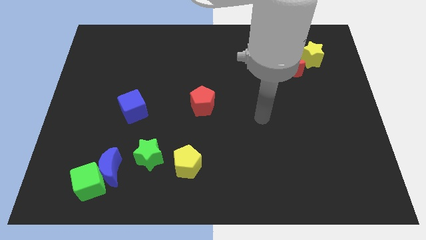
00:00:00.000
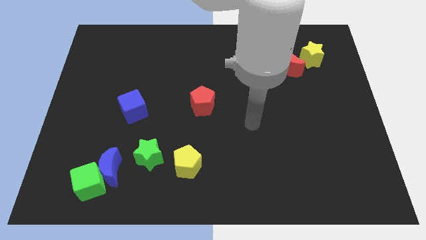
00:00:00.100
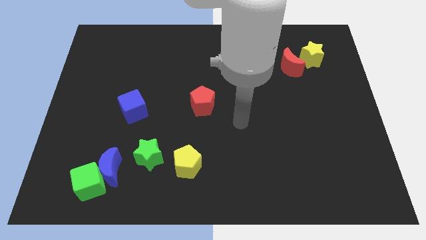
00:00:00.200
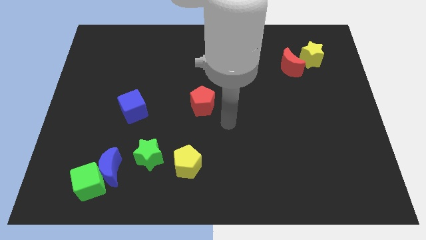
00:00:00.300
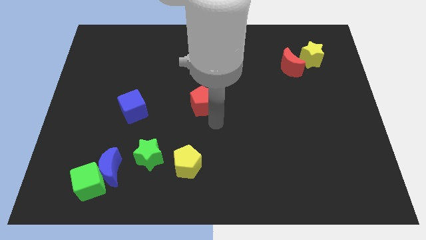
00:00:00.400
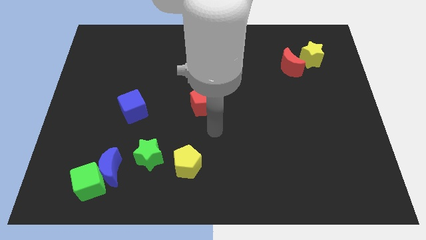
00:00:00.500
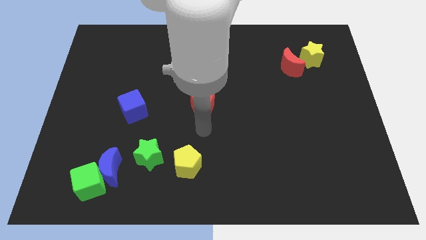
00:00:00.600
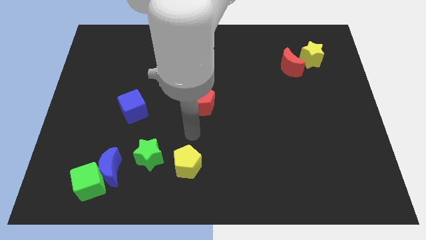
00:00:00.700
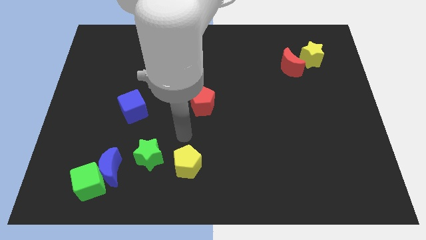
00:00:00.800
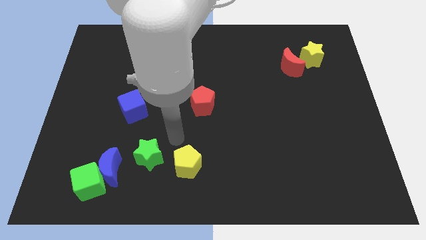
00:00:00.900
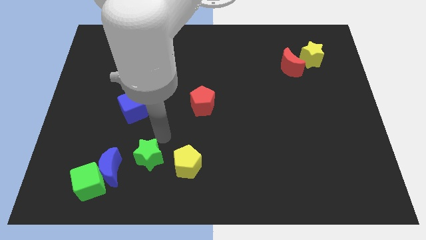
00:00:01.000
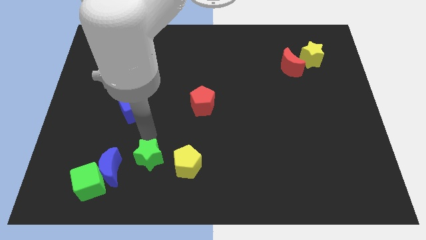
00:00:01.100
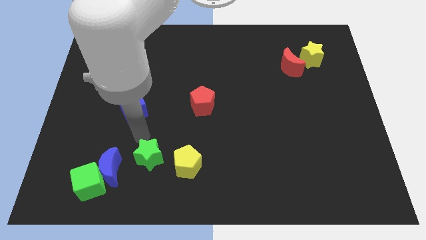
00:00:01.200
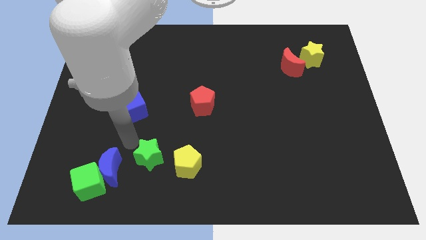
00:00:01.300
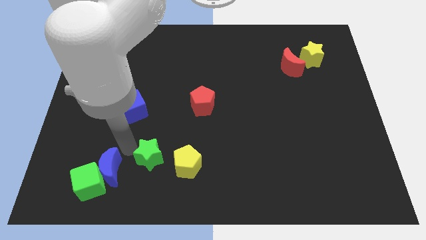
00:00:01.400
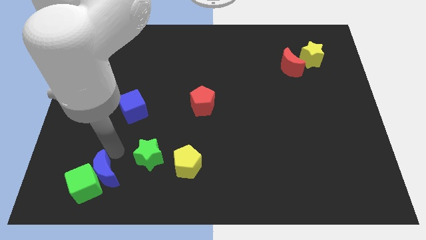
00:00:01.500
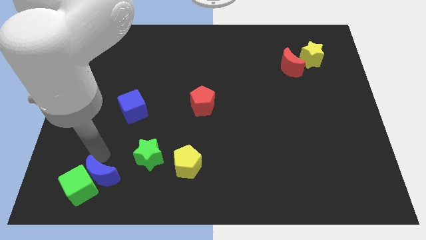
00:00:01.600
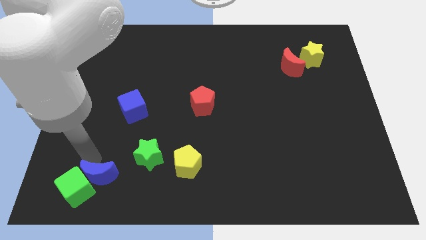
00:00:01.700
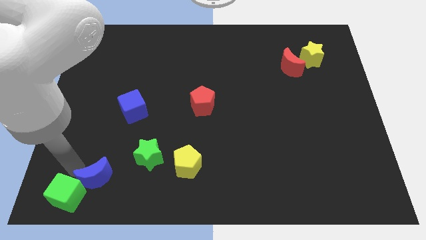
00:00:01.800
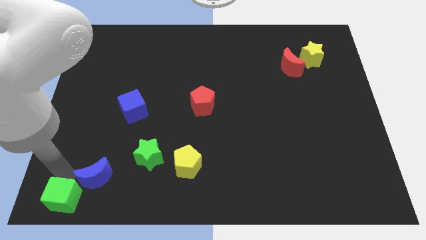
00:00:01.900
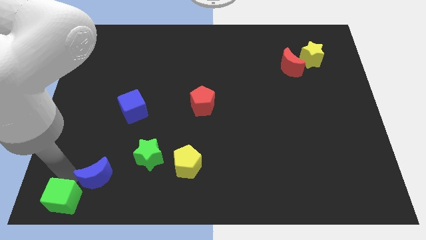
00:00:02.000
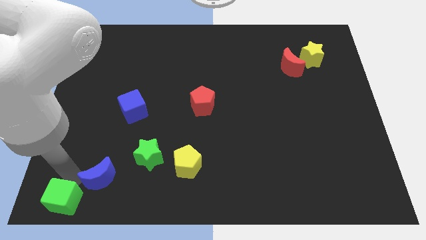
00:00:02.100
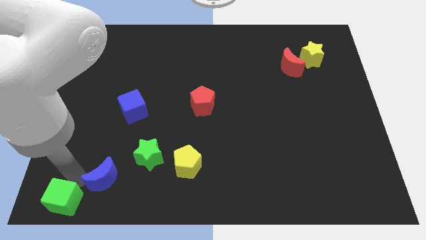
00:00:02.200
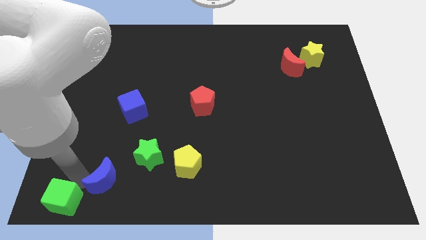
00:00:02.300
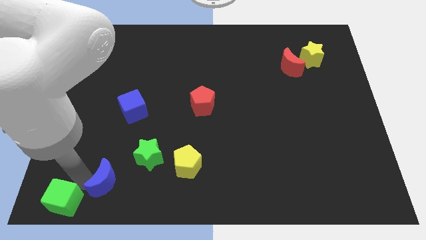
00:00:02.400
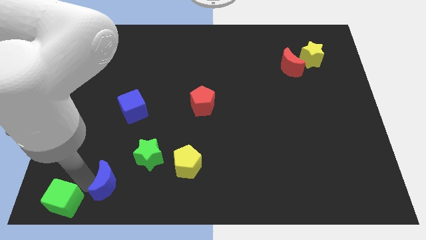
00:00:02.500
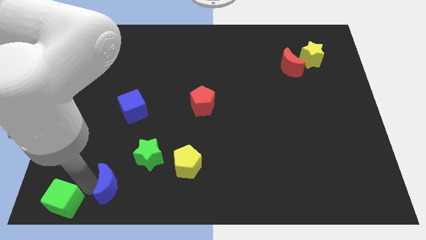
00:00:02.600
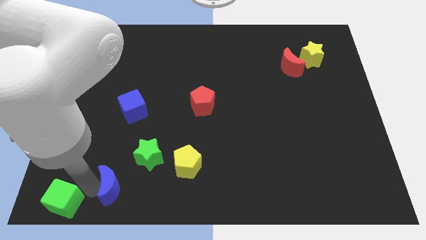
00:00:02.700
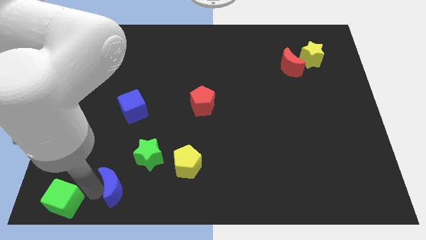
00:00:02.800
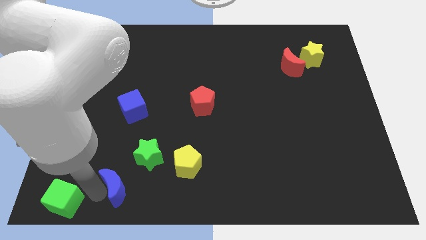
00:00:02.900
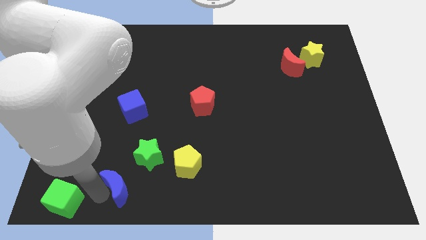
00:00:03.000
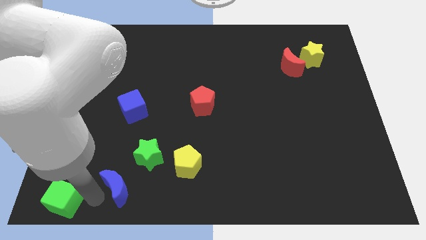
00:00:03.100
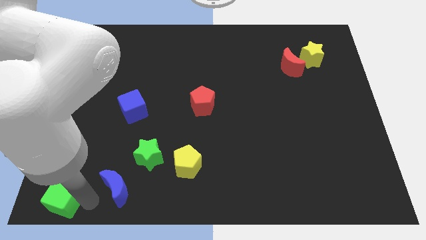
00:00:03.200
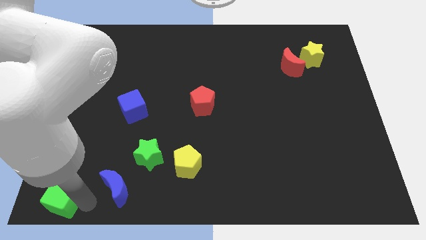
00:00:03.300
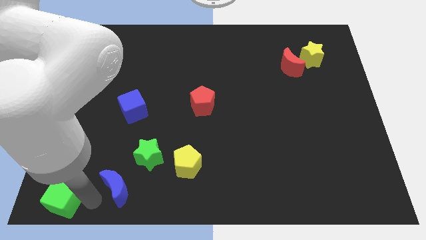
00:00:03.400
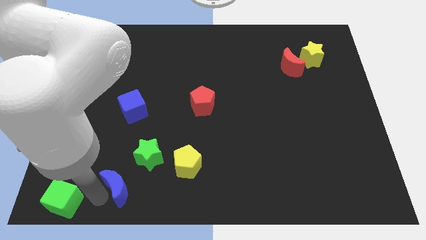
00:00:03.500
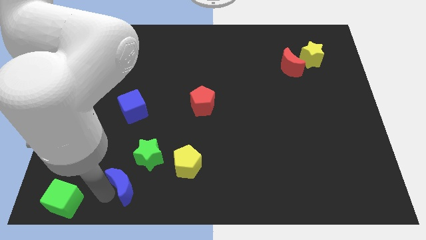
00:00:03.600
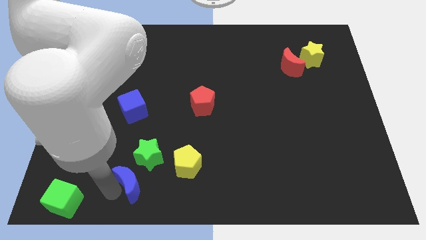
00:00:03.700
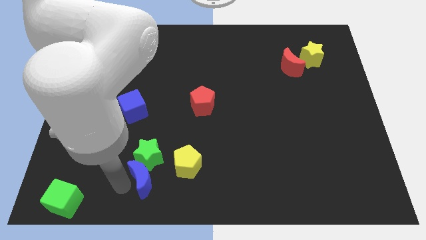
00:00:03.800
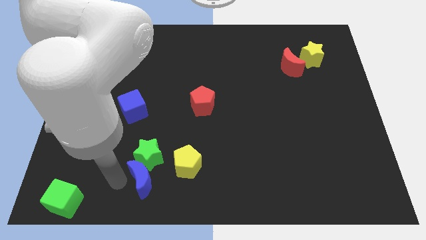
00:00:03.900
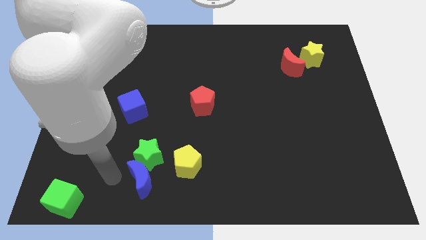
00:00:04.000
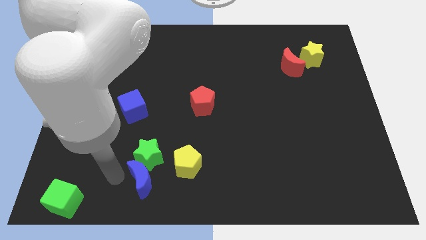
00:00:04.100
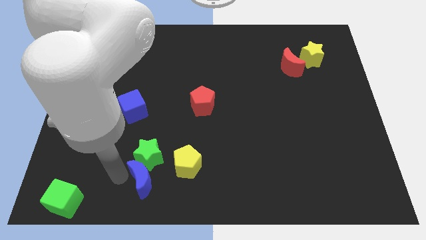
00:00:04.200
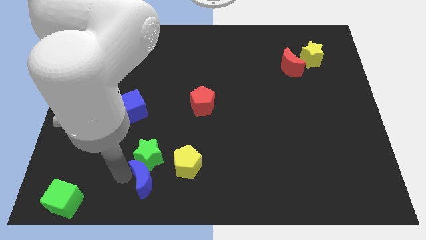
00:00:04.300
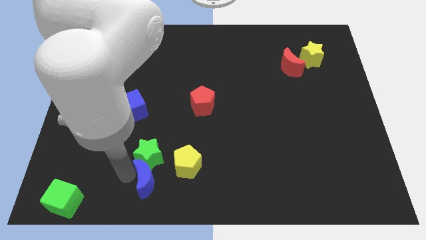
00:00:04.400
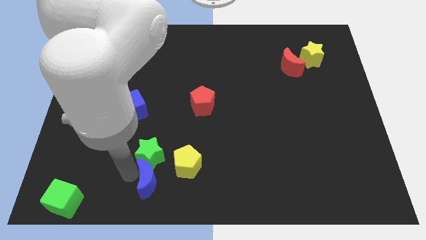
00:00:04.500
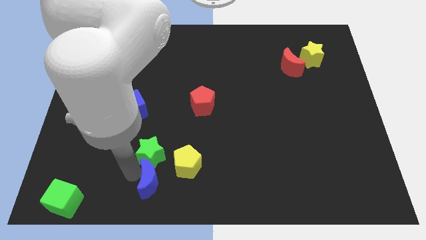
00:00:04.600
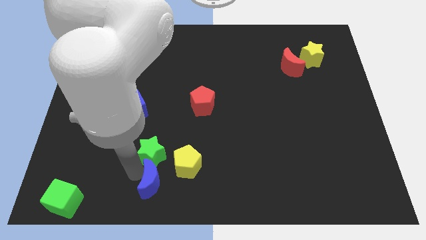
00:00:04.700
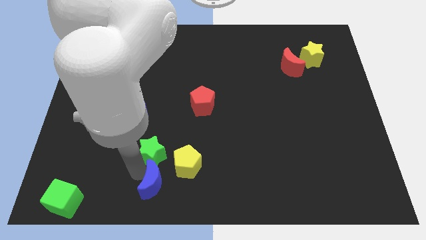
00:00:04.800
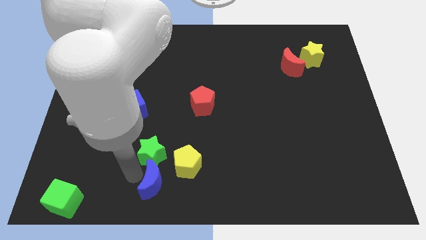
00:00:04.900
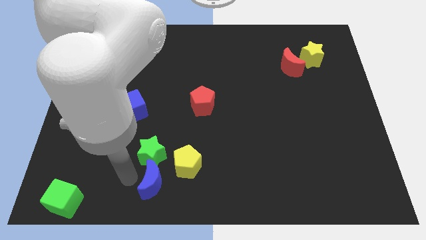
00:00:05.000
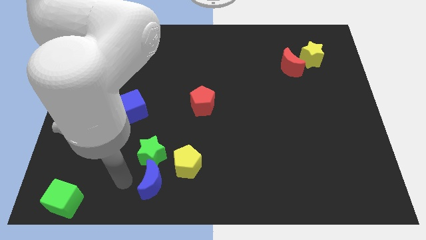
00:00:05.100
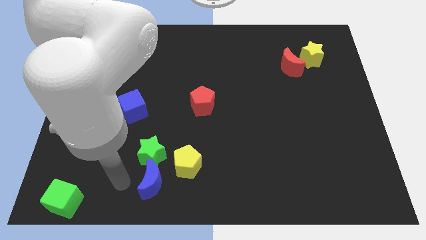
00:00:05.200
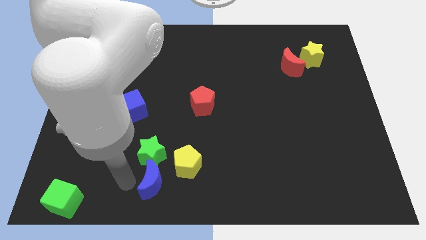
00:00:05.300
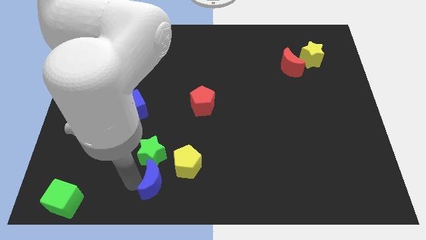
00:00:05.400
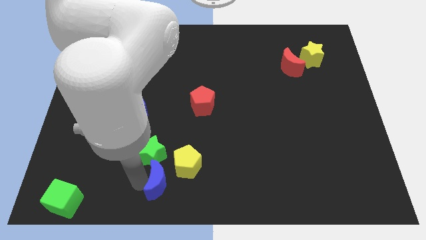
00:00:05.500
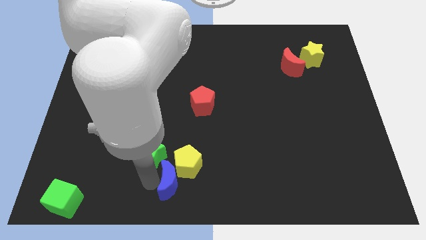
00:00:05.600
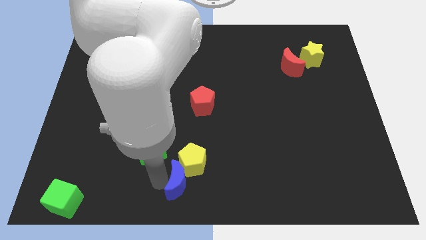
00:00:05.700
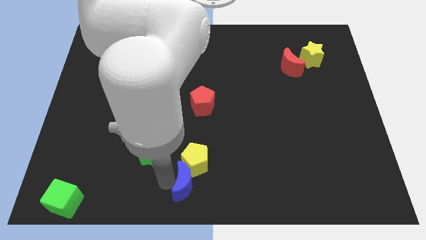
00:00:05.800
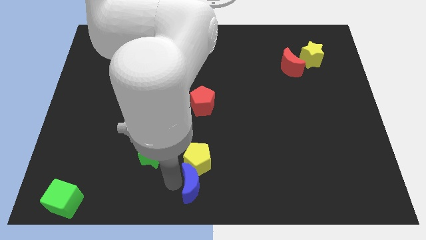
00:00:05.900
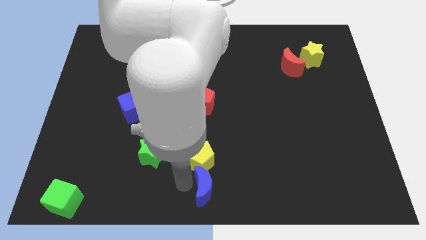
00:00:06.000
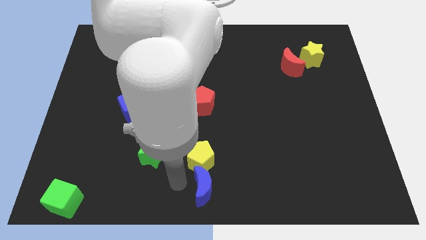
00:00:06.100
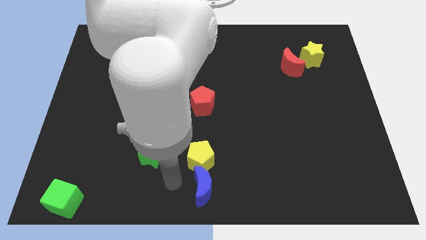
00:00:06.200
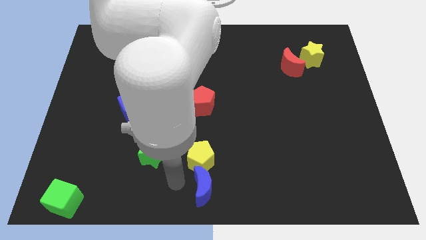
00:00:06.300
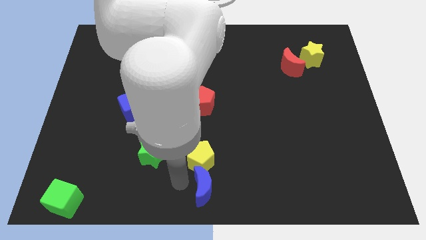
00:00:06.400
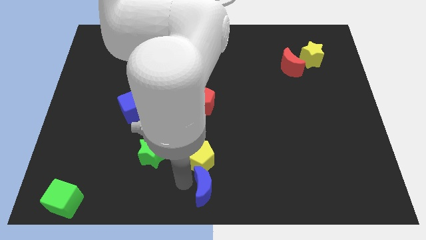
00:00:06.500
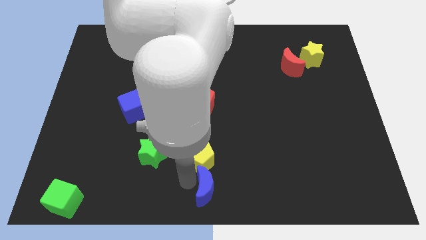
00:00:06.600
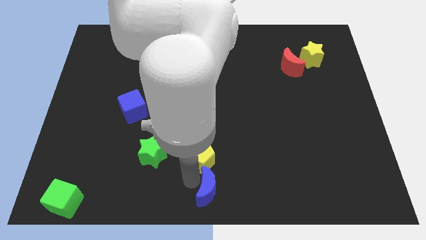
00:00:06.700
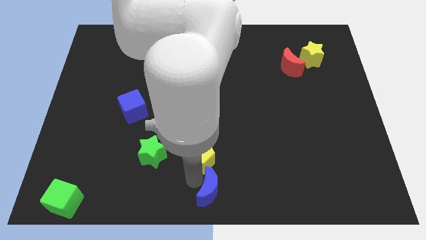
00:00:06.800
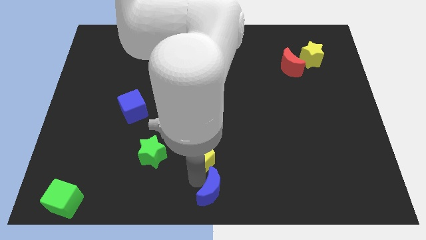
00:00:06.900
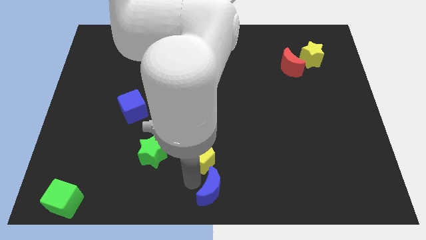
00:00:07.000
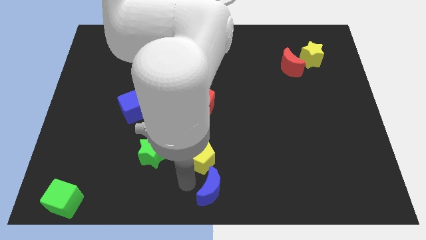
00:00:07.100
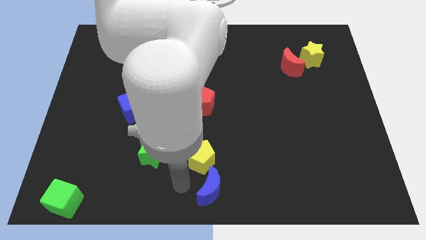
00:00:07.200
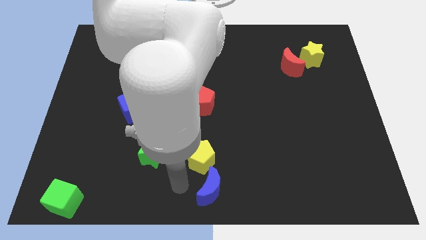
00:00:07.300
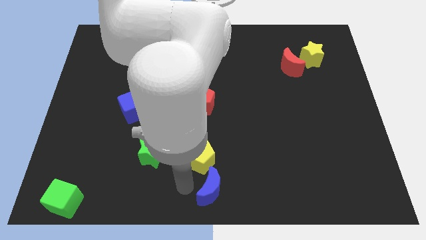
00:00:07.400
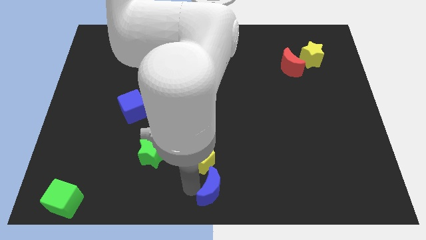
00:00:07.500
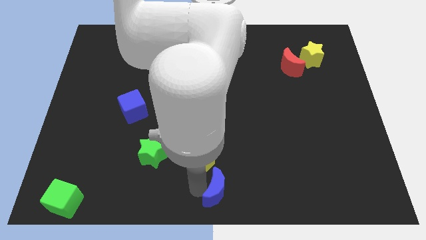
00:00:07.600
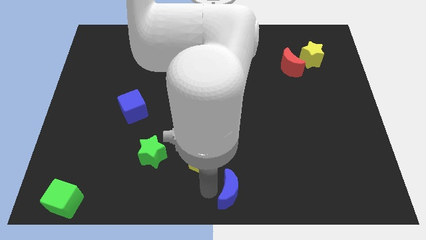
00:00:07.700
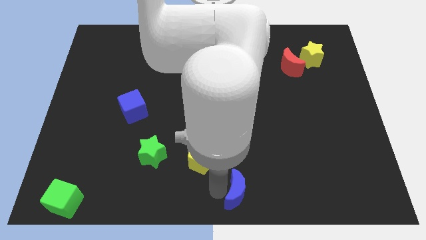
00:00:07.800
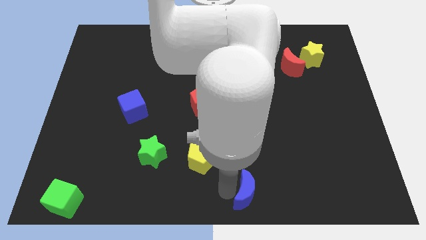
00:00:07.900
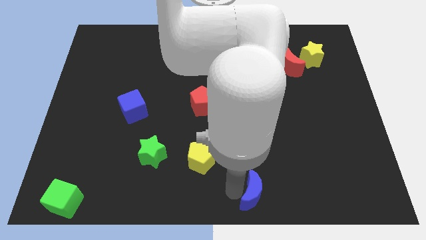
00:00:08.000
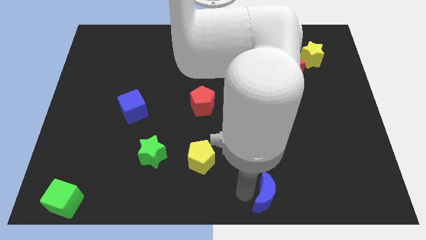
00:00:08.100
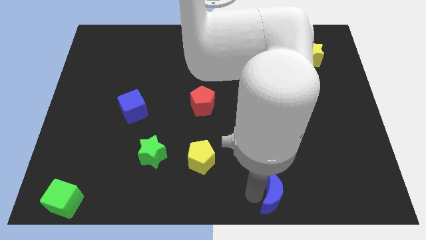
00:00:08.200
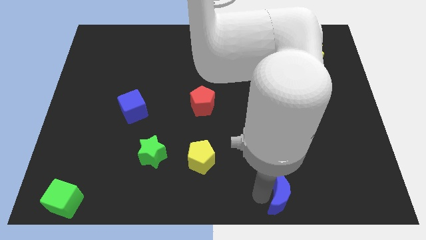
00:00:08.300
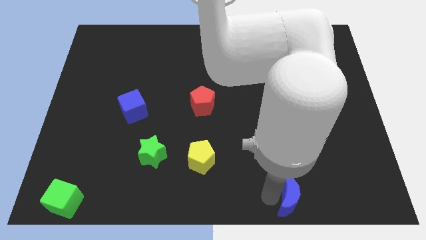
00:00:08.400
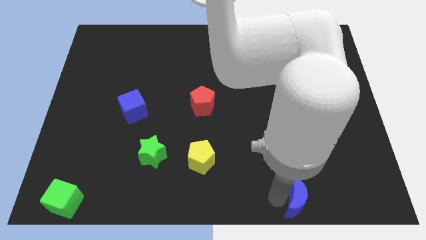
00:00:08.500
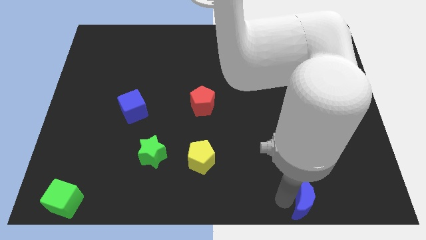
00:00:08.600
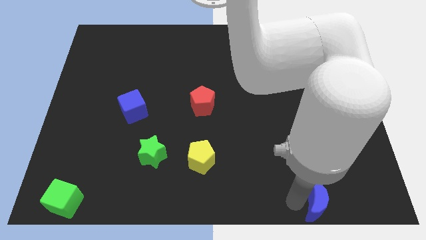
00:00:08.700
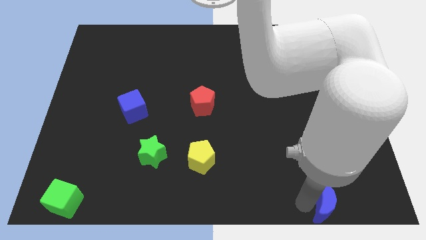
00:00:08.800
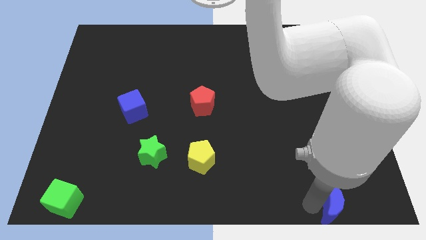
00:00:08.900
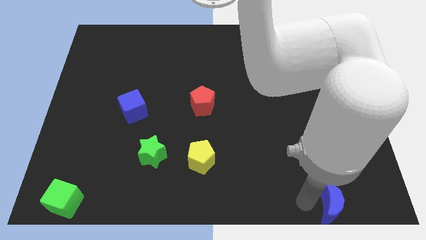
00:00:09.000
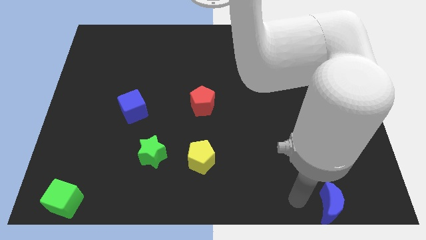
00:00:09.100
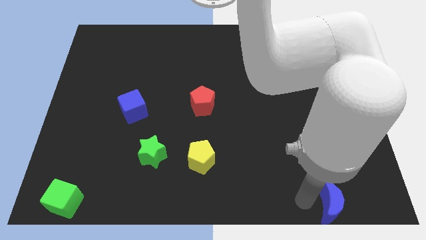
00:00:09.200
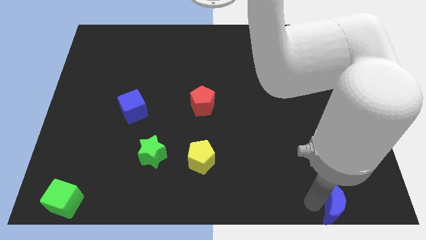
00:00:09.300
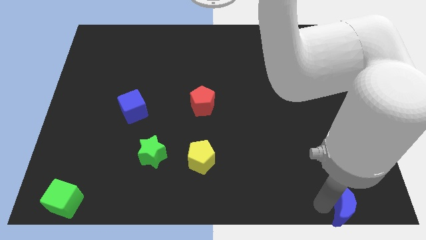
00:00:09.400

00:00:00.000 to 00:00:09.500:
put the blue moon to the bottom right corner
